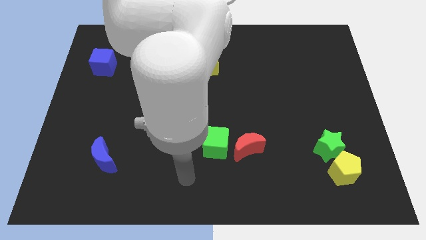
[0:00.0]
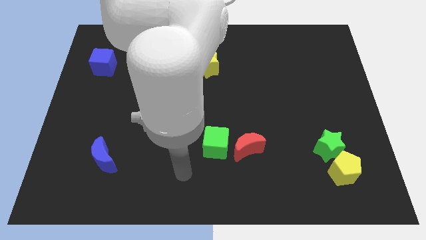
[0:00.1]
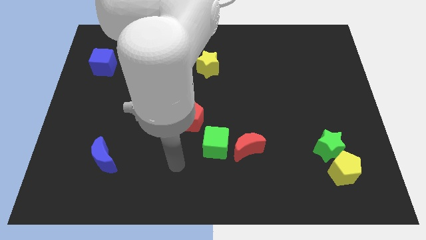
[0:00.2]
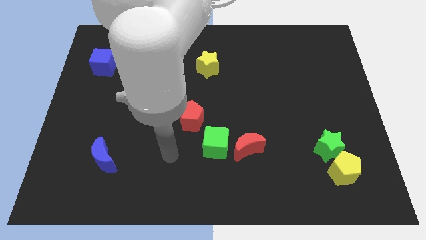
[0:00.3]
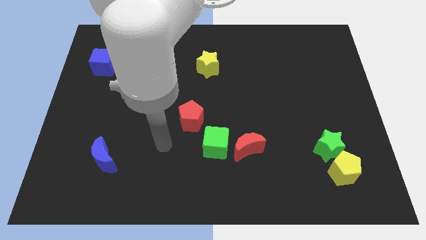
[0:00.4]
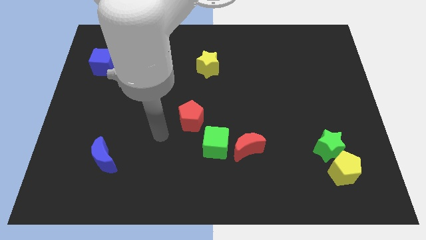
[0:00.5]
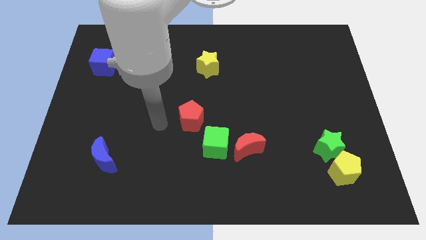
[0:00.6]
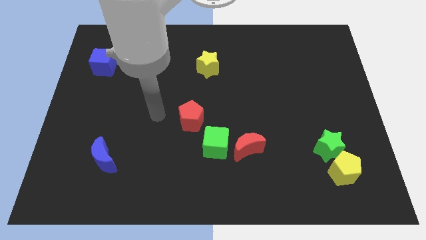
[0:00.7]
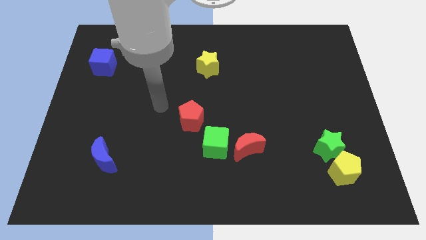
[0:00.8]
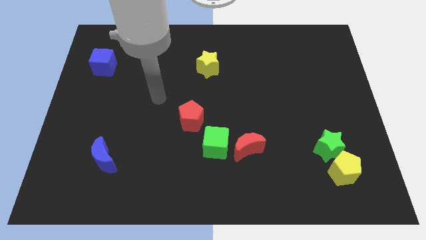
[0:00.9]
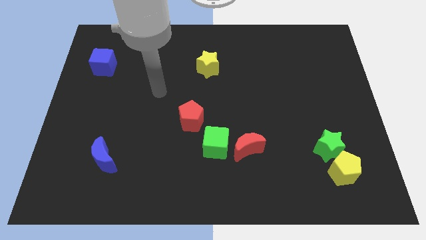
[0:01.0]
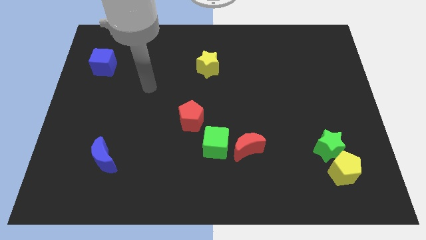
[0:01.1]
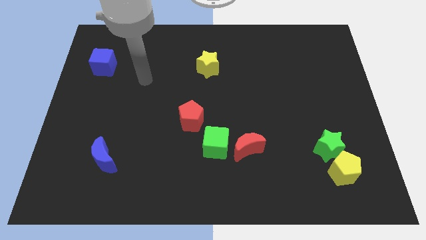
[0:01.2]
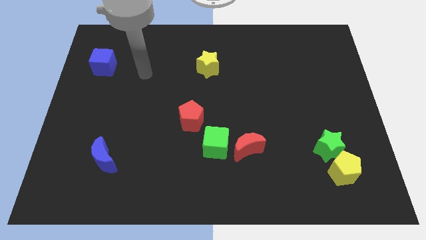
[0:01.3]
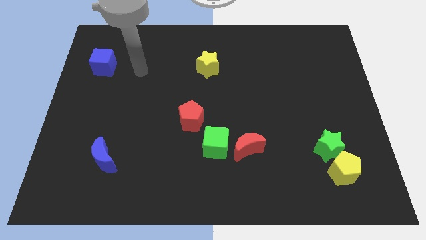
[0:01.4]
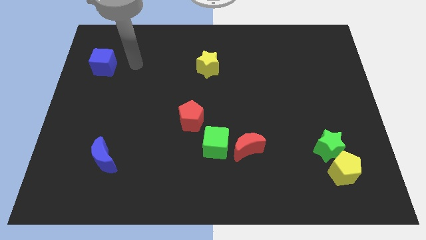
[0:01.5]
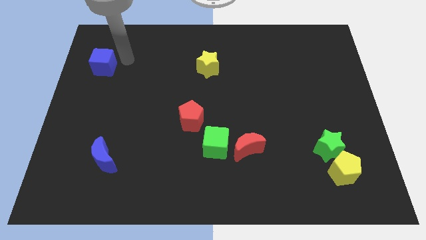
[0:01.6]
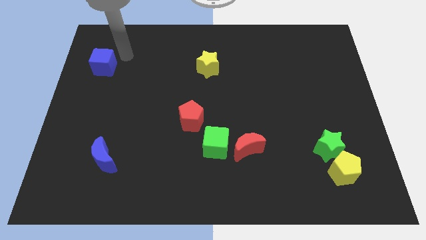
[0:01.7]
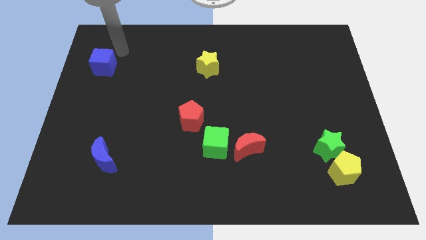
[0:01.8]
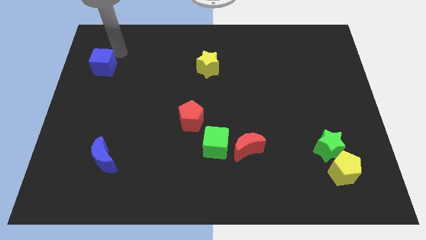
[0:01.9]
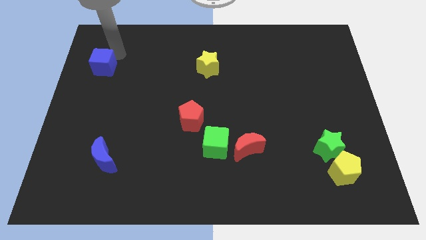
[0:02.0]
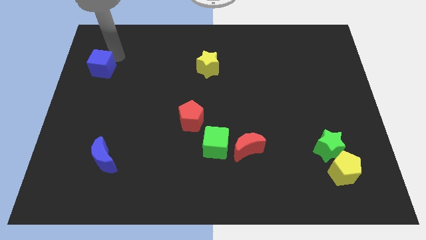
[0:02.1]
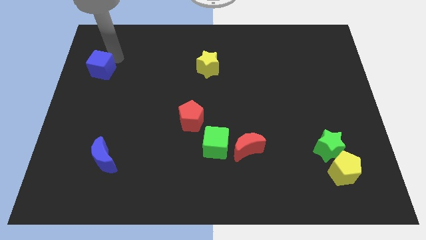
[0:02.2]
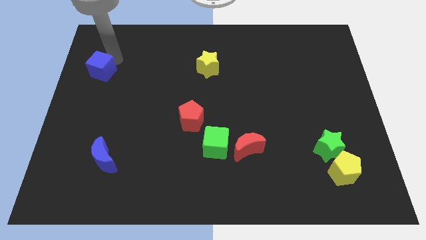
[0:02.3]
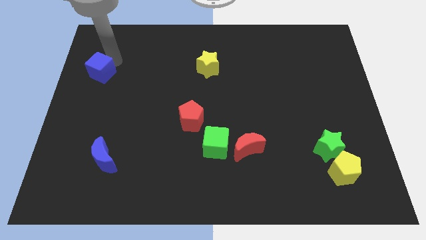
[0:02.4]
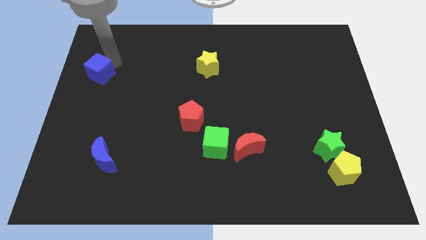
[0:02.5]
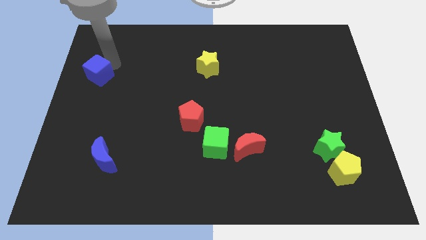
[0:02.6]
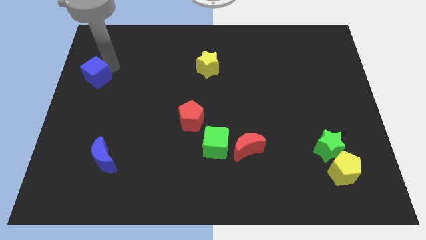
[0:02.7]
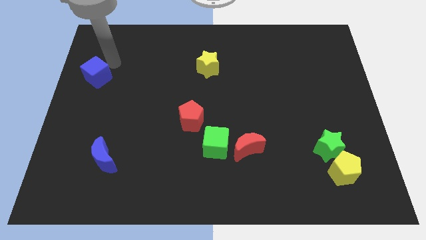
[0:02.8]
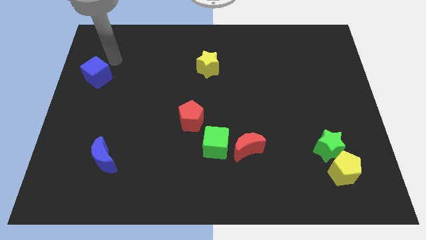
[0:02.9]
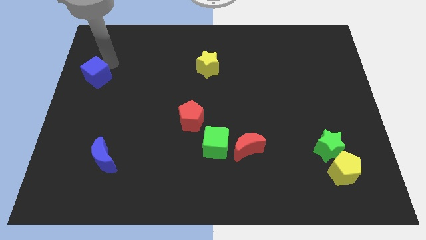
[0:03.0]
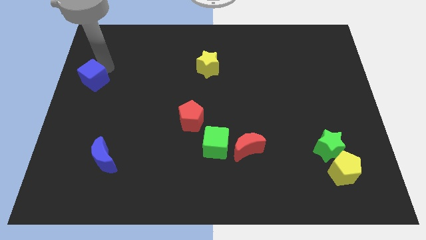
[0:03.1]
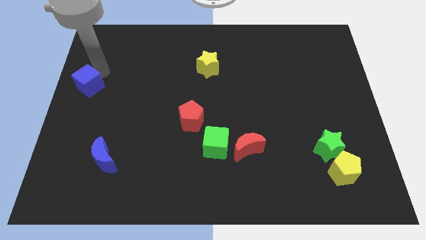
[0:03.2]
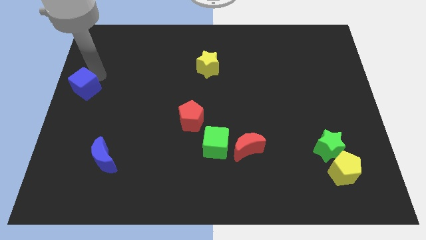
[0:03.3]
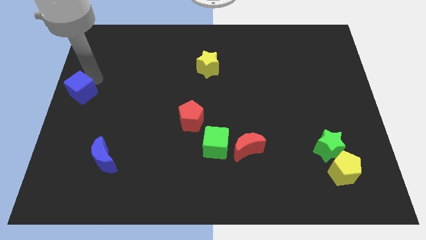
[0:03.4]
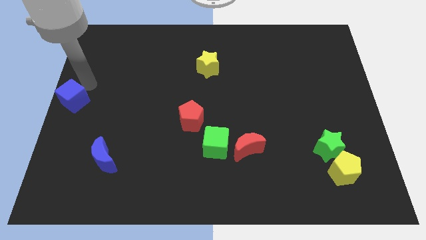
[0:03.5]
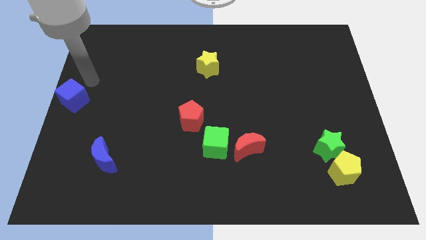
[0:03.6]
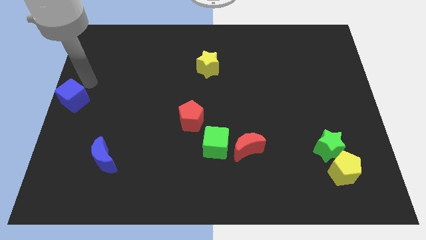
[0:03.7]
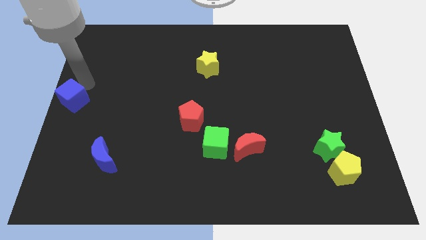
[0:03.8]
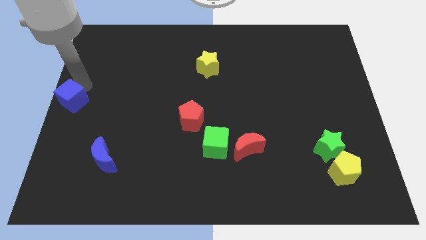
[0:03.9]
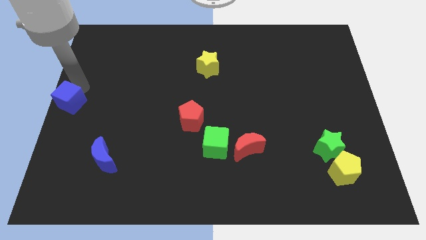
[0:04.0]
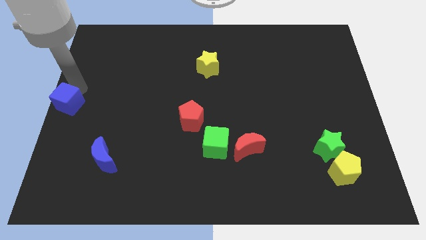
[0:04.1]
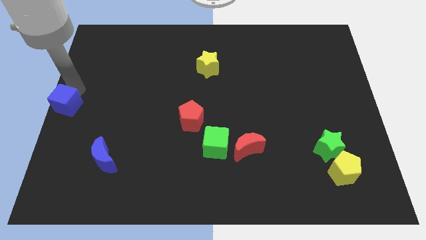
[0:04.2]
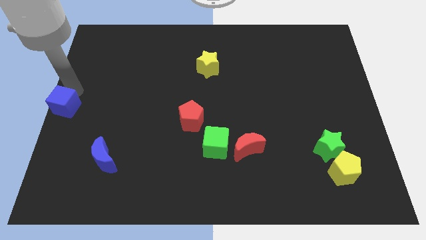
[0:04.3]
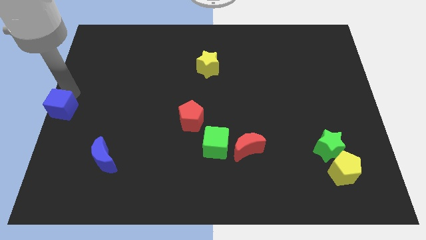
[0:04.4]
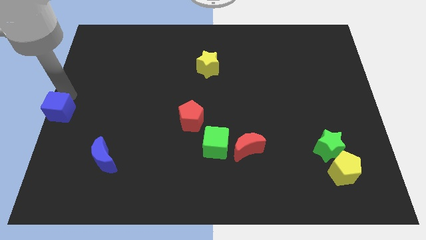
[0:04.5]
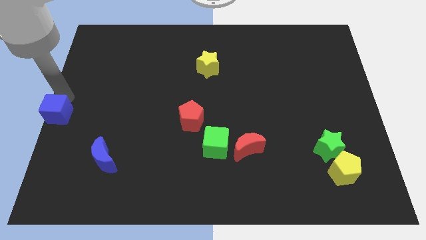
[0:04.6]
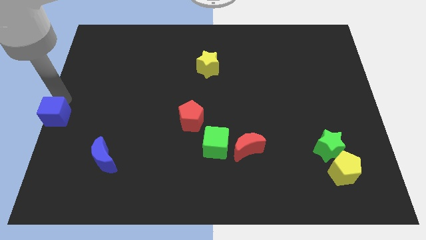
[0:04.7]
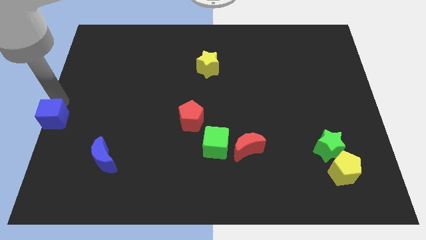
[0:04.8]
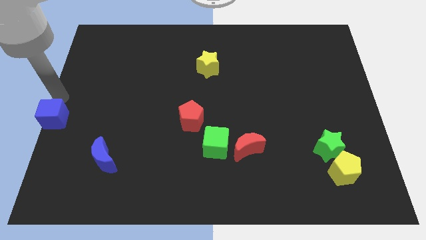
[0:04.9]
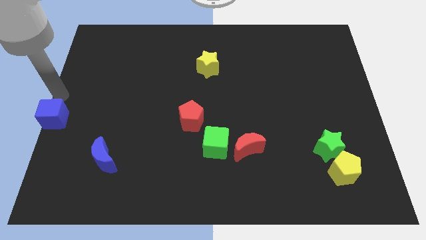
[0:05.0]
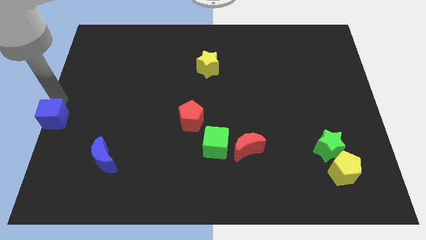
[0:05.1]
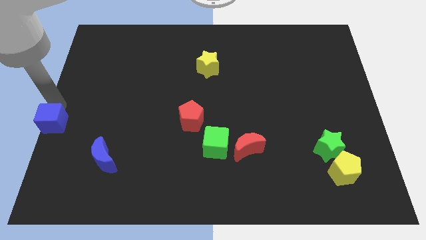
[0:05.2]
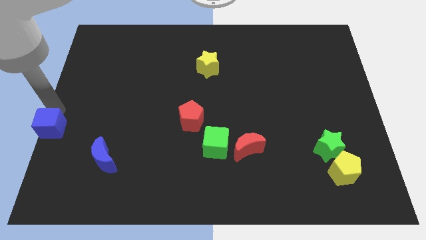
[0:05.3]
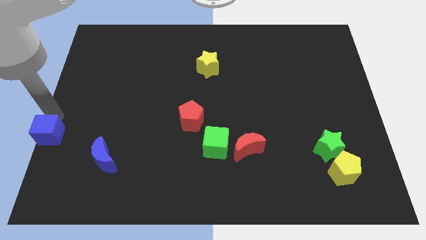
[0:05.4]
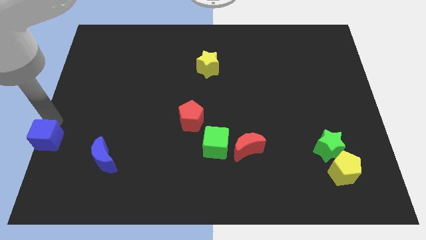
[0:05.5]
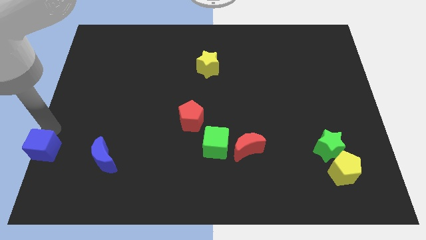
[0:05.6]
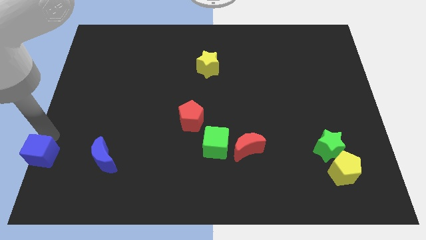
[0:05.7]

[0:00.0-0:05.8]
push the blue cube to the bottom left corner

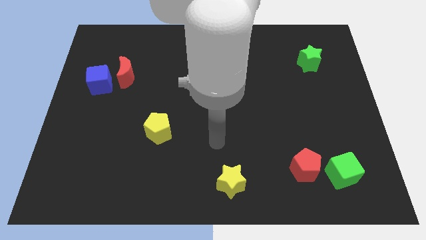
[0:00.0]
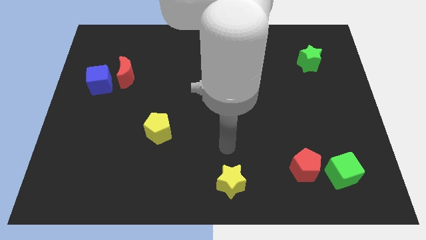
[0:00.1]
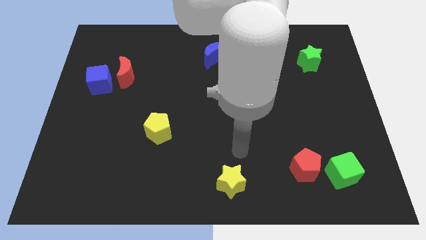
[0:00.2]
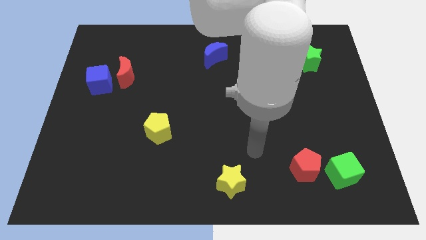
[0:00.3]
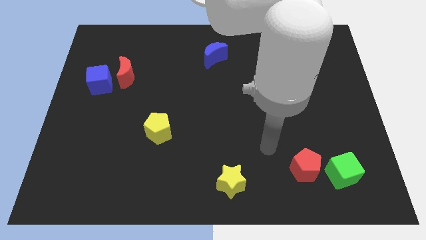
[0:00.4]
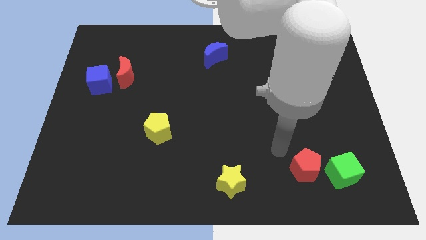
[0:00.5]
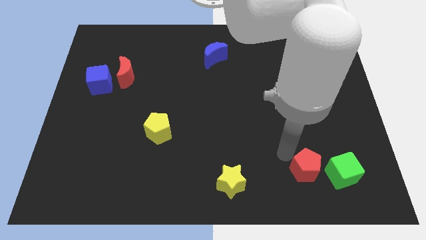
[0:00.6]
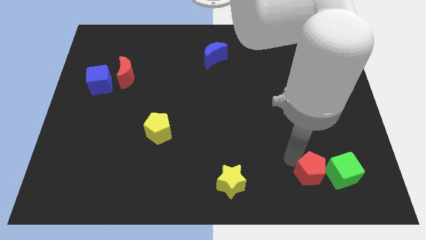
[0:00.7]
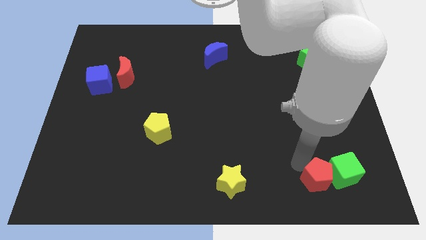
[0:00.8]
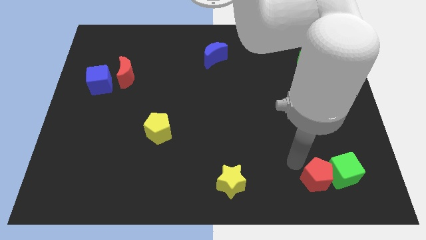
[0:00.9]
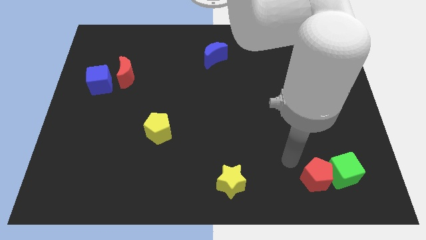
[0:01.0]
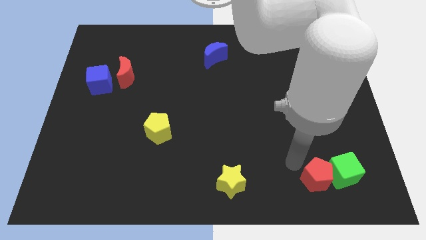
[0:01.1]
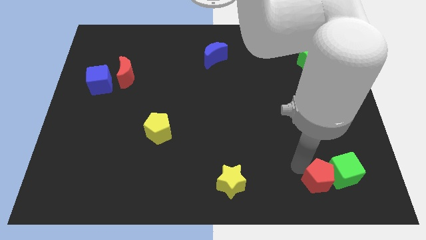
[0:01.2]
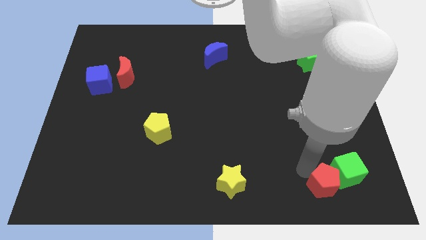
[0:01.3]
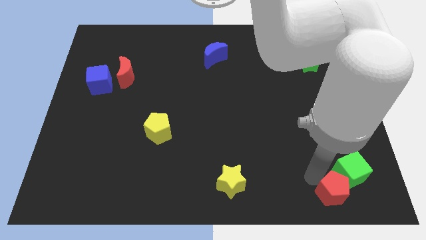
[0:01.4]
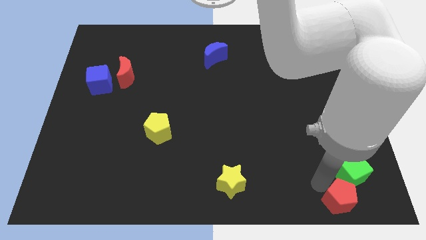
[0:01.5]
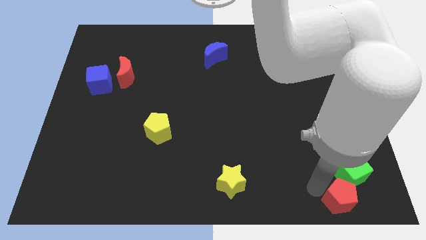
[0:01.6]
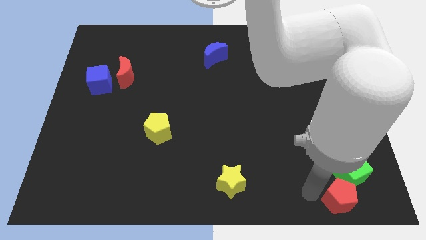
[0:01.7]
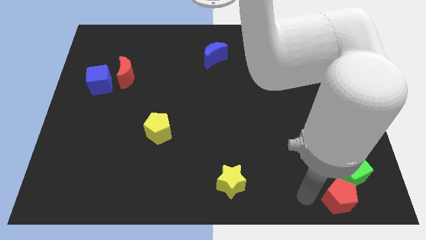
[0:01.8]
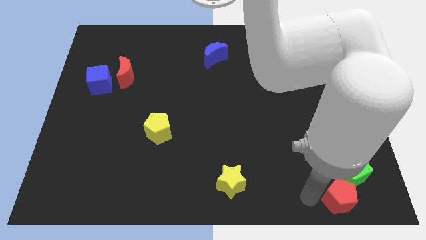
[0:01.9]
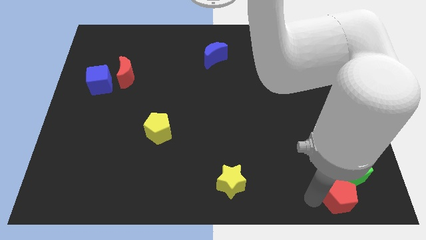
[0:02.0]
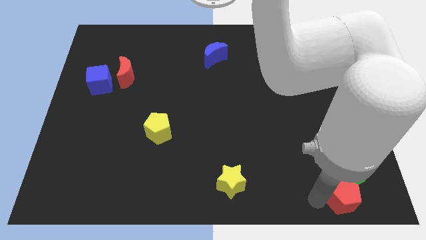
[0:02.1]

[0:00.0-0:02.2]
put the red pentagon to the bottom right corner
